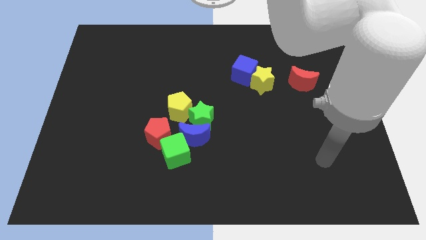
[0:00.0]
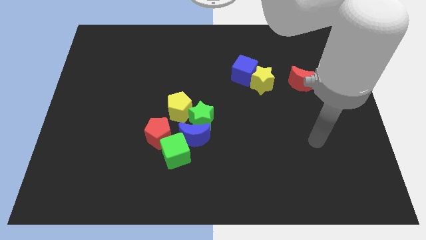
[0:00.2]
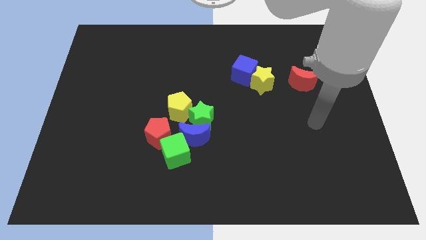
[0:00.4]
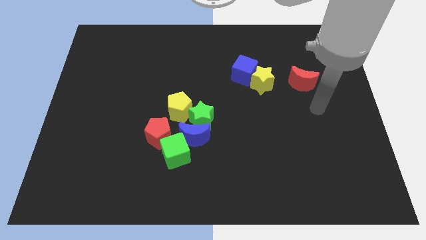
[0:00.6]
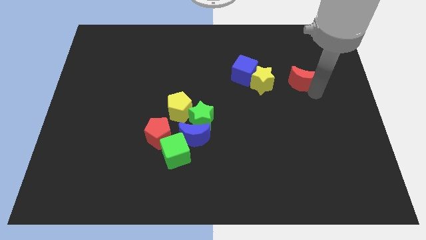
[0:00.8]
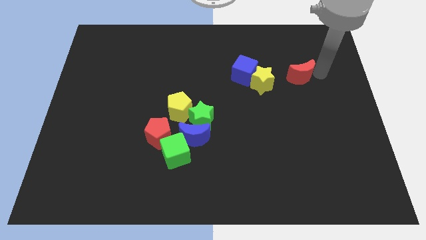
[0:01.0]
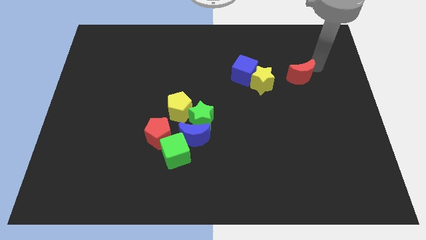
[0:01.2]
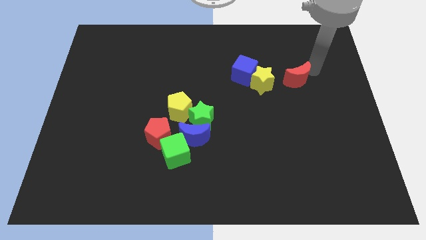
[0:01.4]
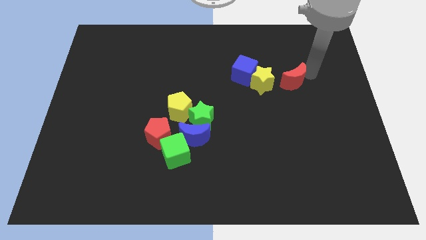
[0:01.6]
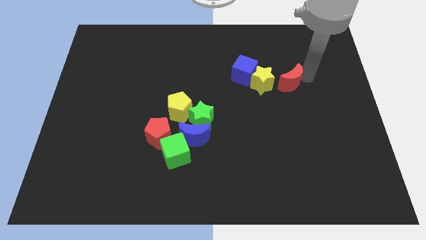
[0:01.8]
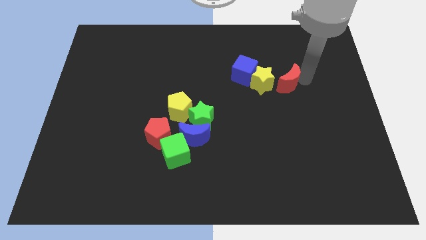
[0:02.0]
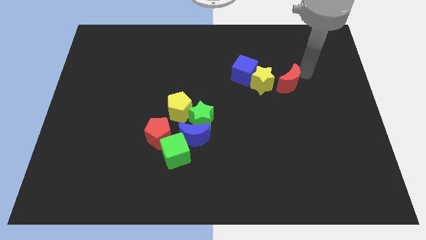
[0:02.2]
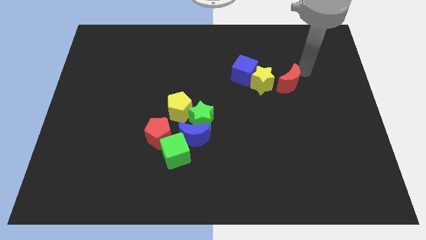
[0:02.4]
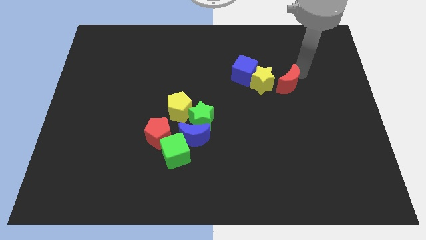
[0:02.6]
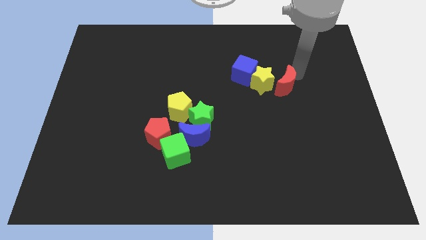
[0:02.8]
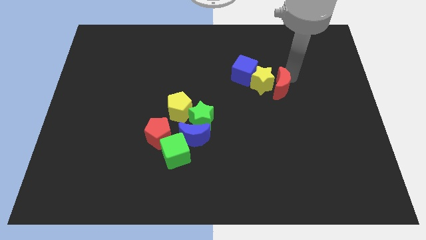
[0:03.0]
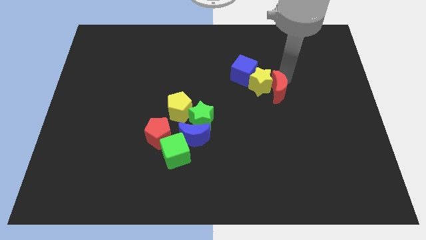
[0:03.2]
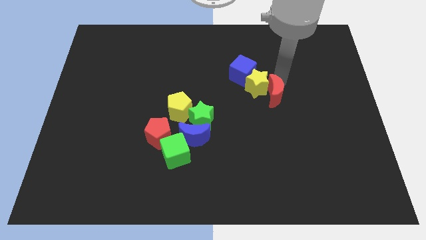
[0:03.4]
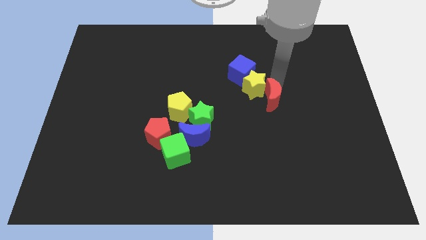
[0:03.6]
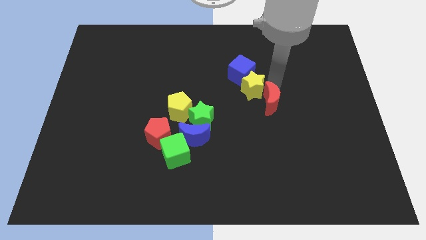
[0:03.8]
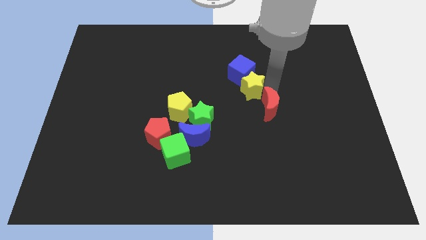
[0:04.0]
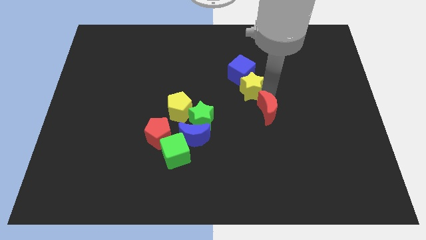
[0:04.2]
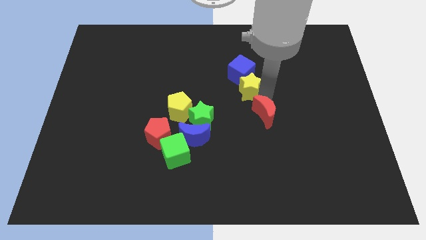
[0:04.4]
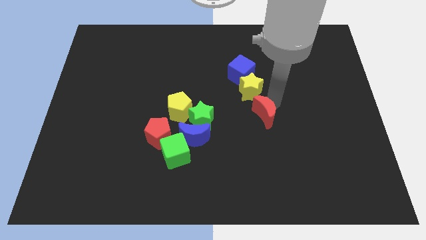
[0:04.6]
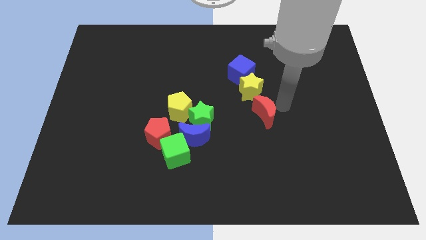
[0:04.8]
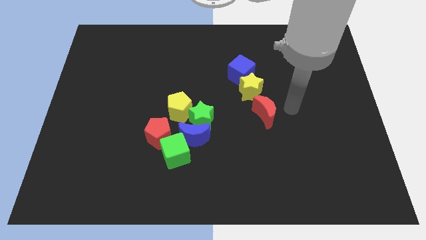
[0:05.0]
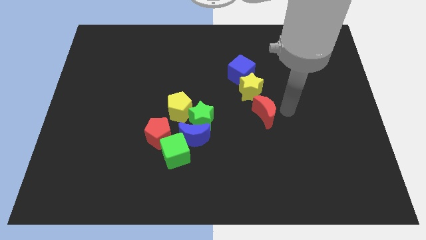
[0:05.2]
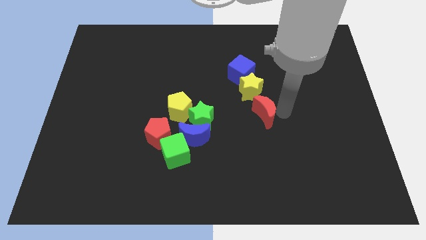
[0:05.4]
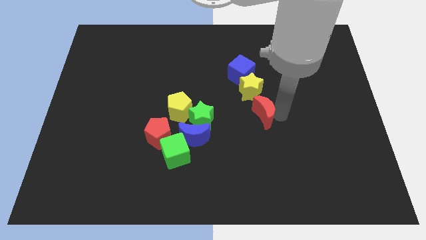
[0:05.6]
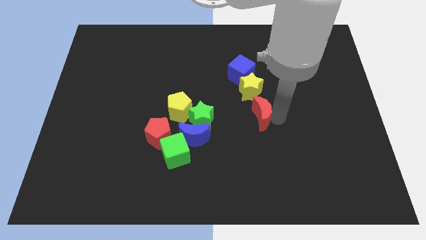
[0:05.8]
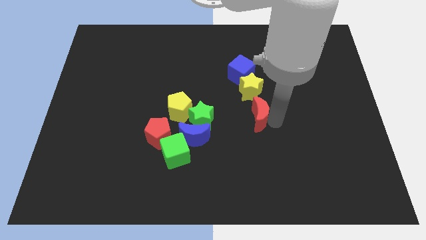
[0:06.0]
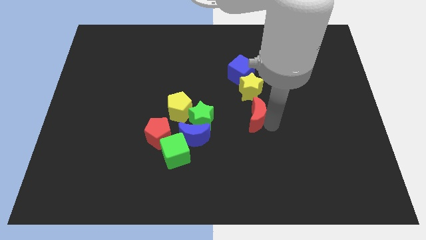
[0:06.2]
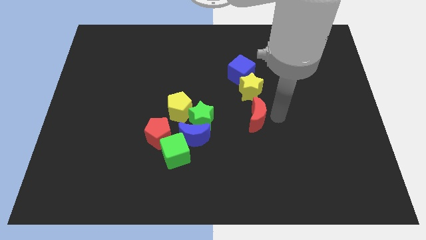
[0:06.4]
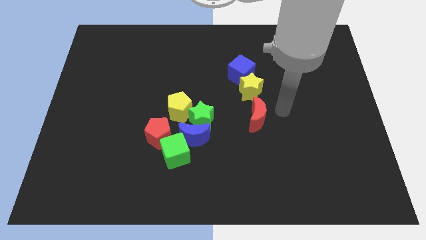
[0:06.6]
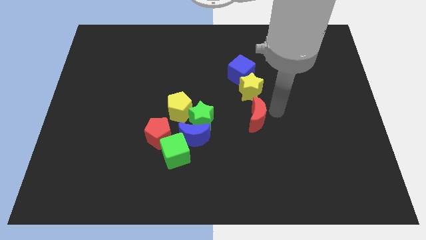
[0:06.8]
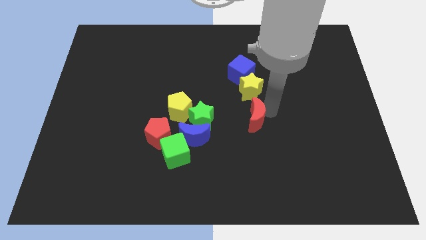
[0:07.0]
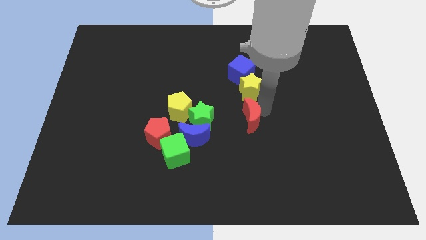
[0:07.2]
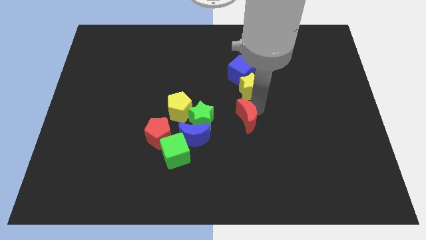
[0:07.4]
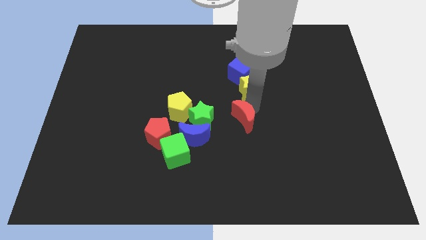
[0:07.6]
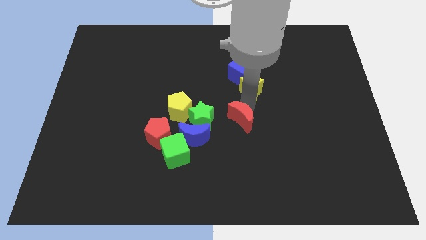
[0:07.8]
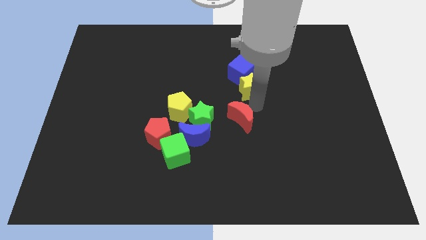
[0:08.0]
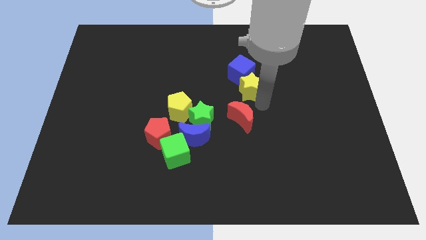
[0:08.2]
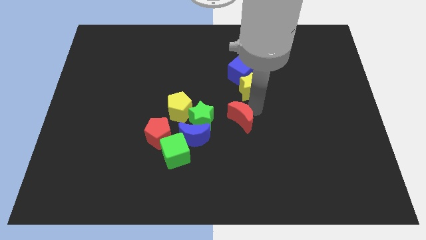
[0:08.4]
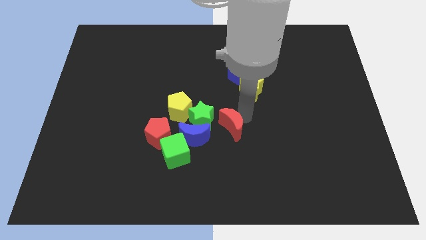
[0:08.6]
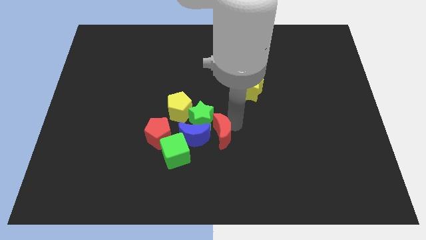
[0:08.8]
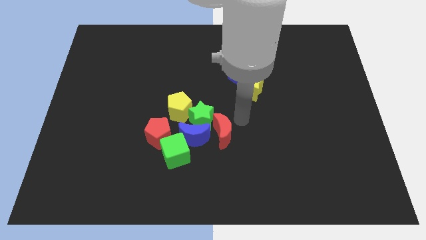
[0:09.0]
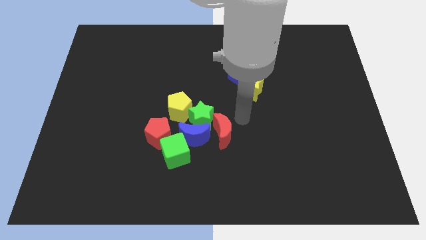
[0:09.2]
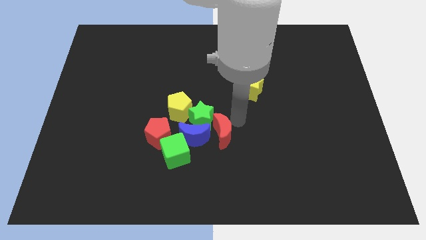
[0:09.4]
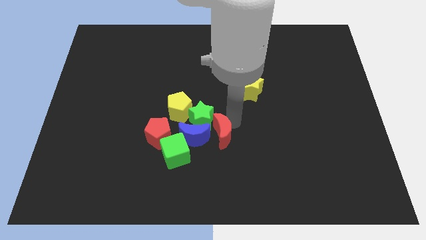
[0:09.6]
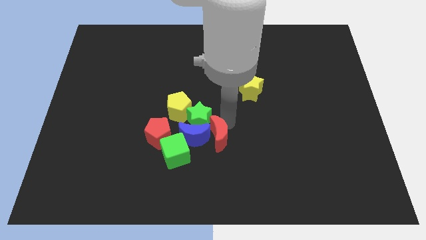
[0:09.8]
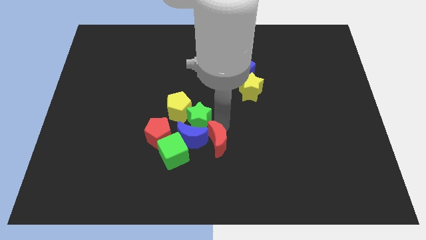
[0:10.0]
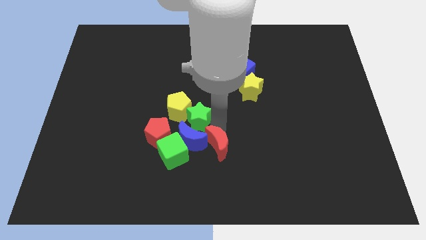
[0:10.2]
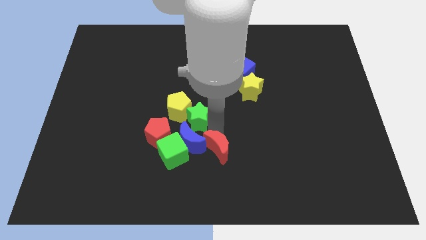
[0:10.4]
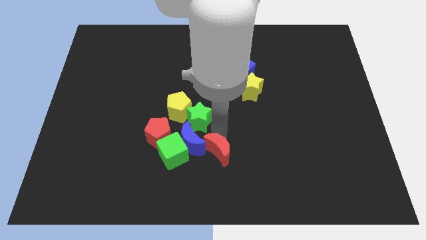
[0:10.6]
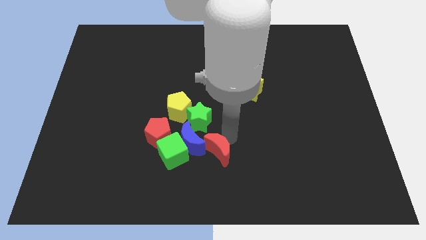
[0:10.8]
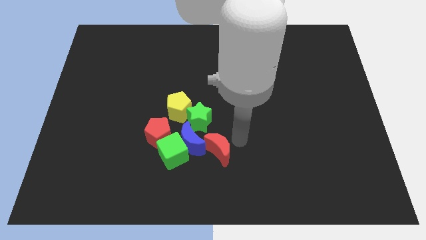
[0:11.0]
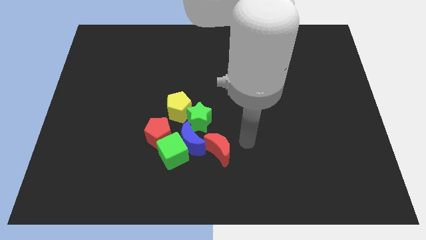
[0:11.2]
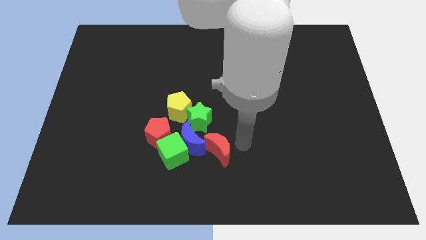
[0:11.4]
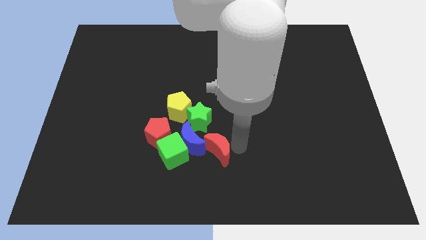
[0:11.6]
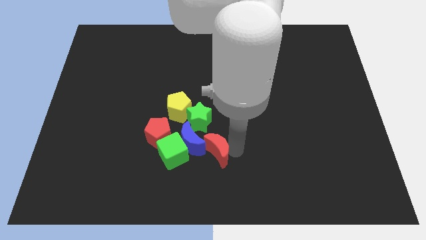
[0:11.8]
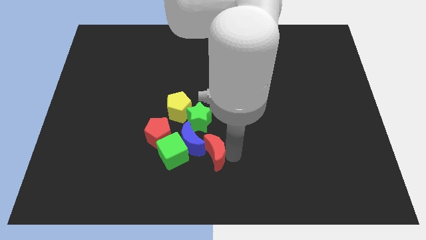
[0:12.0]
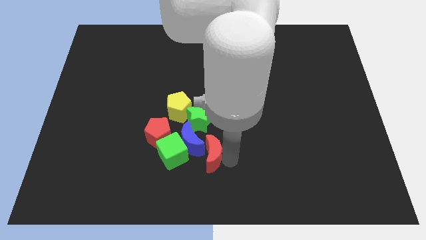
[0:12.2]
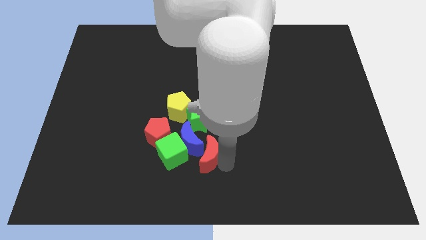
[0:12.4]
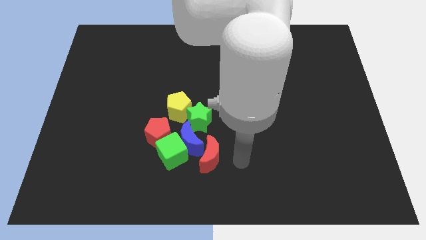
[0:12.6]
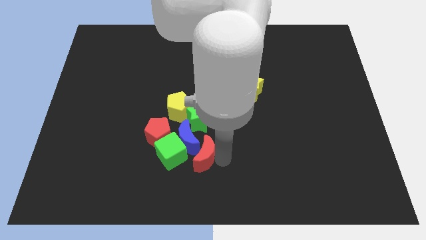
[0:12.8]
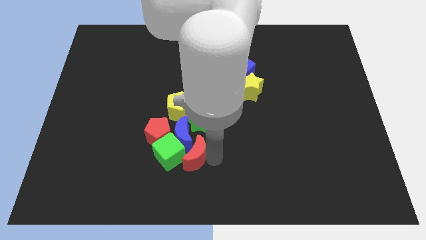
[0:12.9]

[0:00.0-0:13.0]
push the red moon towards the green cube
